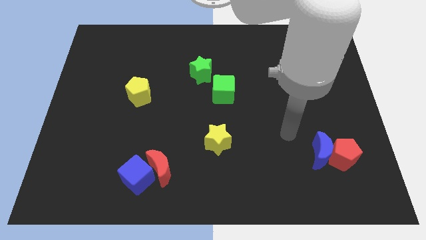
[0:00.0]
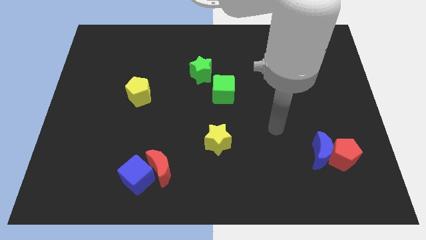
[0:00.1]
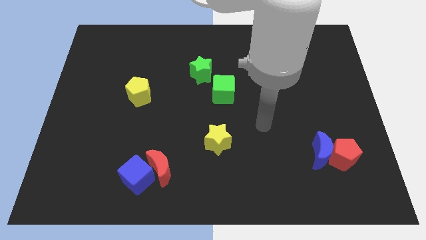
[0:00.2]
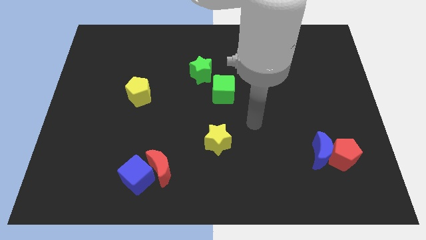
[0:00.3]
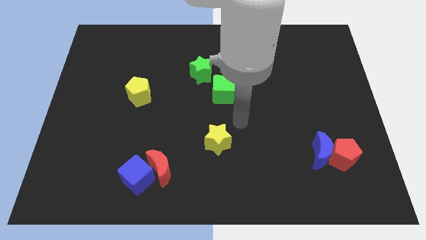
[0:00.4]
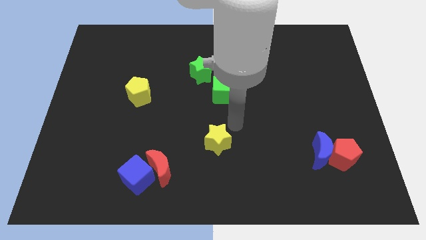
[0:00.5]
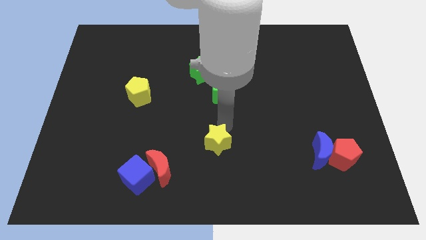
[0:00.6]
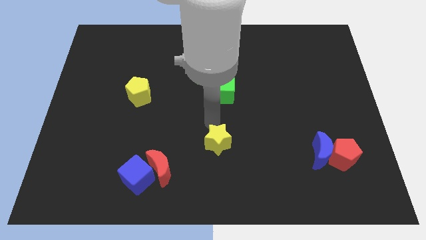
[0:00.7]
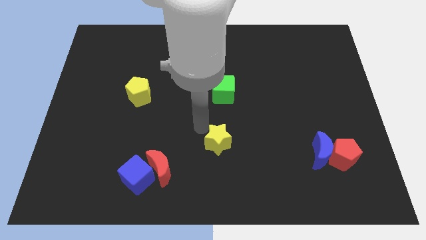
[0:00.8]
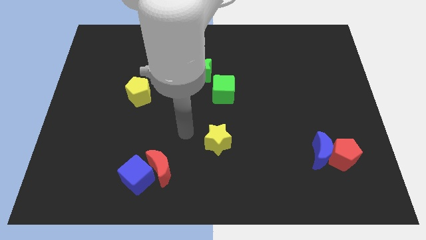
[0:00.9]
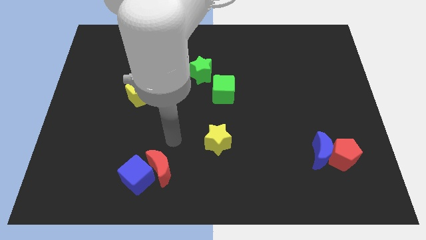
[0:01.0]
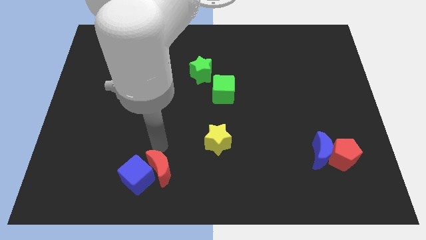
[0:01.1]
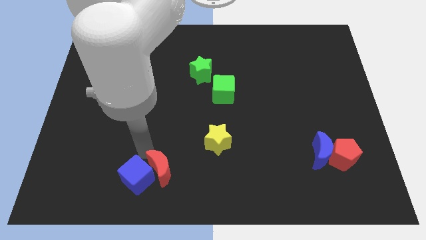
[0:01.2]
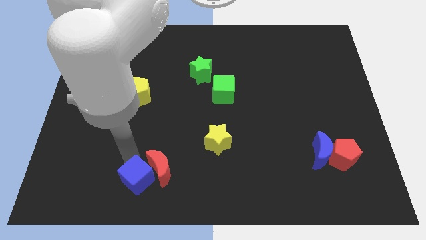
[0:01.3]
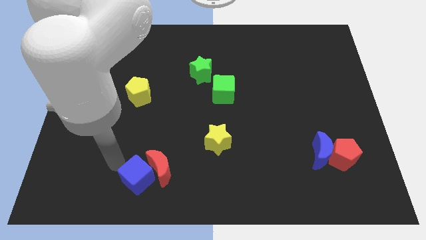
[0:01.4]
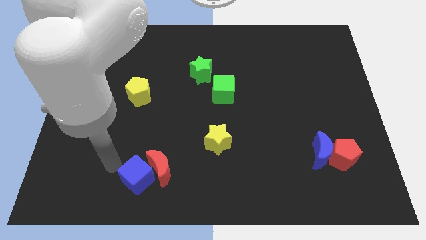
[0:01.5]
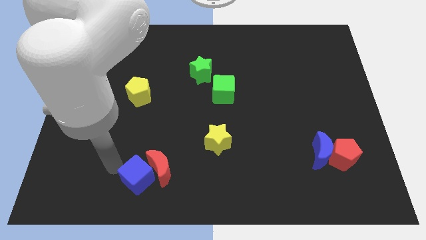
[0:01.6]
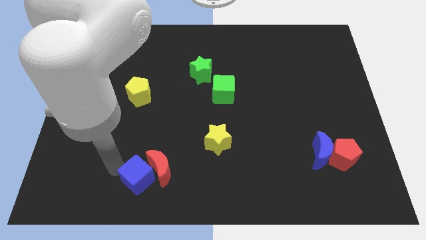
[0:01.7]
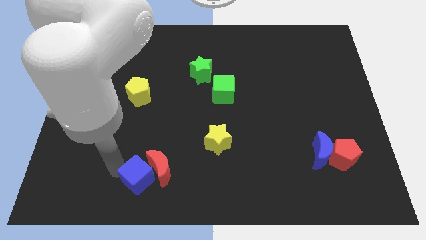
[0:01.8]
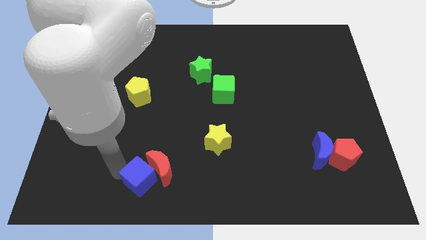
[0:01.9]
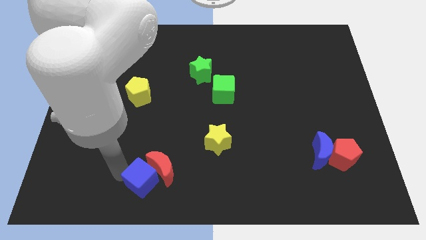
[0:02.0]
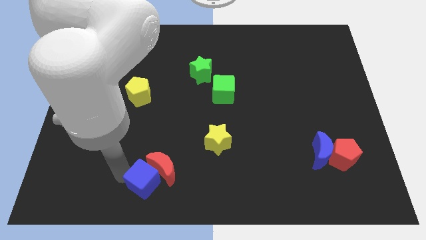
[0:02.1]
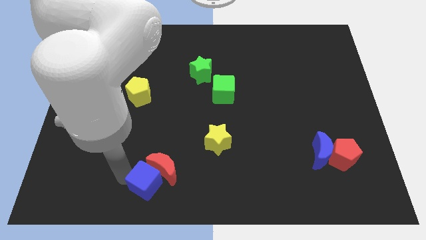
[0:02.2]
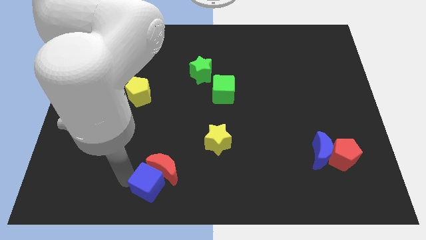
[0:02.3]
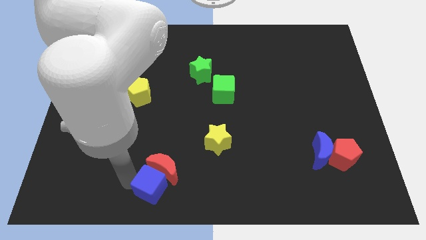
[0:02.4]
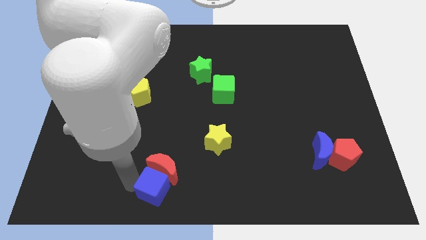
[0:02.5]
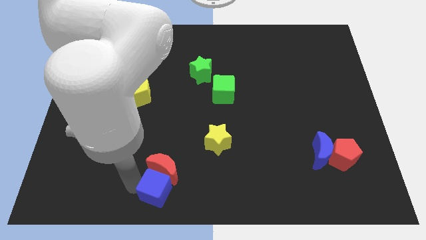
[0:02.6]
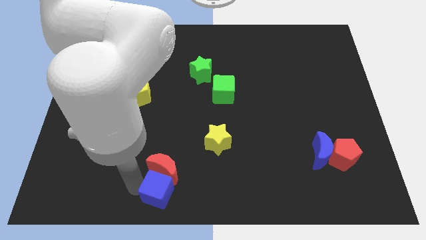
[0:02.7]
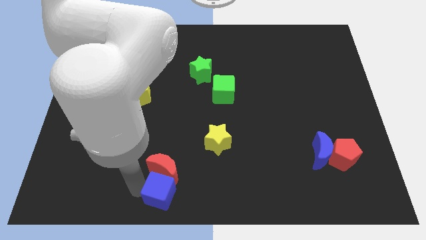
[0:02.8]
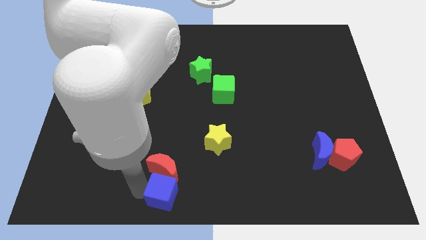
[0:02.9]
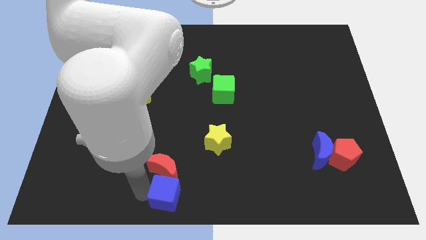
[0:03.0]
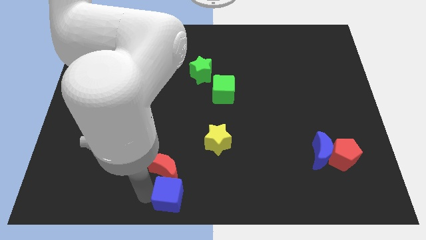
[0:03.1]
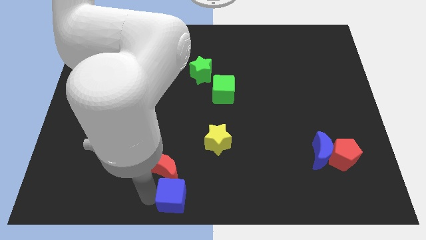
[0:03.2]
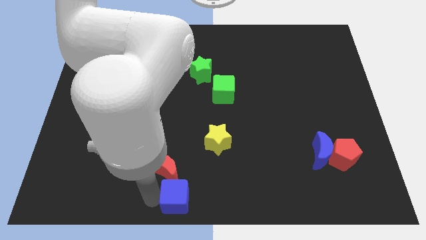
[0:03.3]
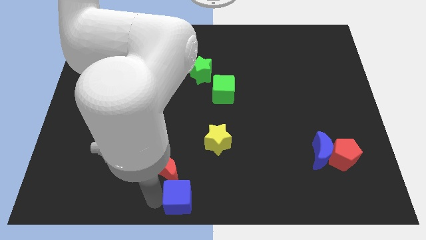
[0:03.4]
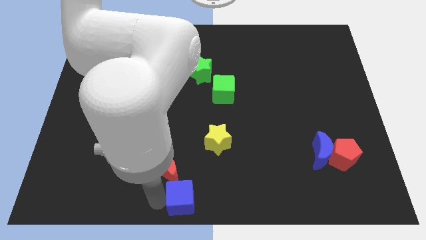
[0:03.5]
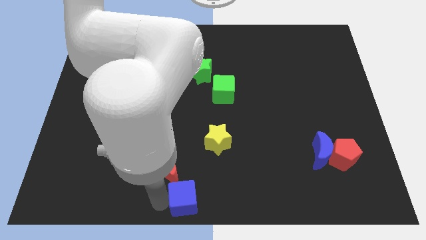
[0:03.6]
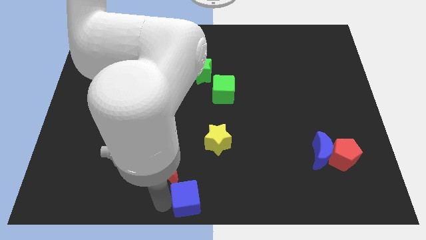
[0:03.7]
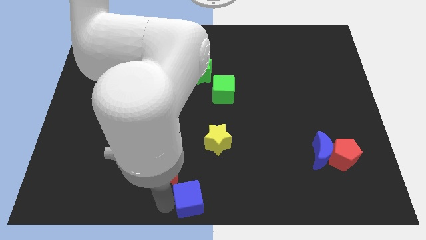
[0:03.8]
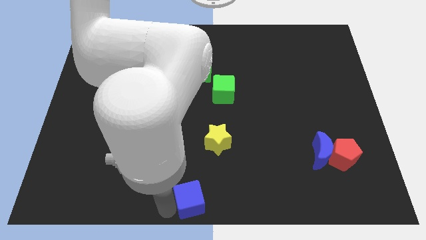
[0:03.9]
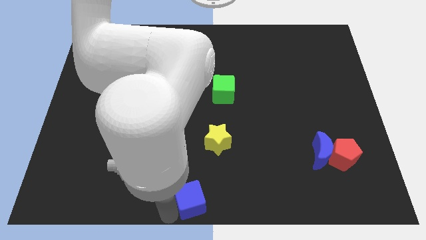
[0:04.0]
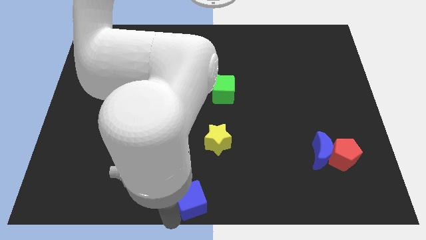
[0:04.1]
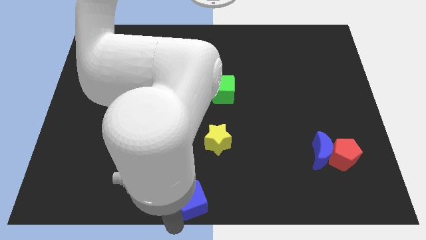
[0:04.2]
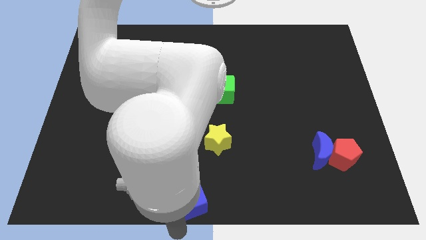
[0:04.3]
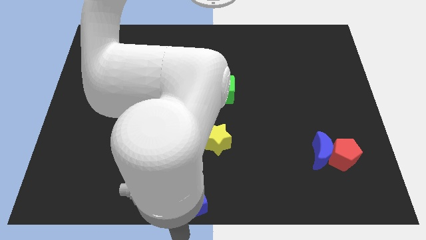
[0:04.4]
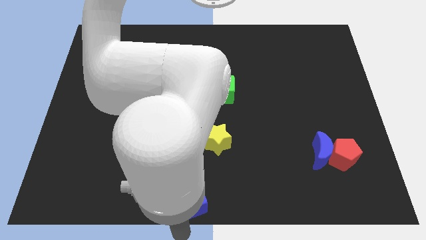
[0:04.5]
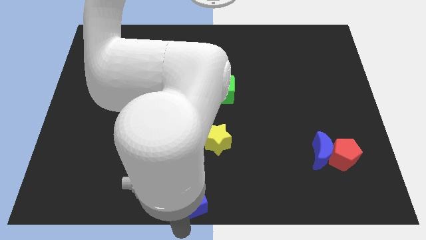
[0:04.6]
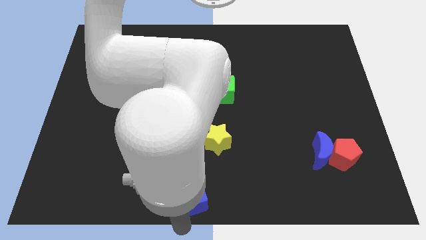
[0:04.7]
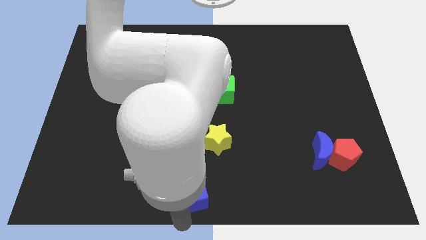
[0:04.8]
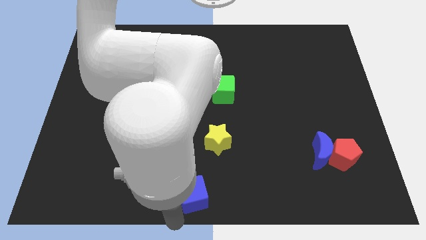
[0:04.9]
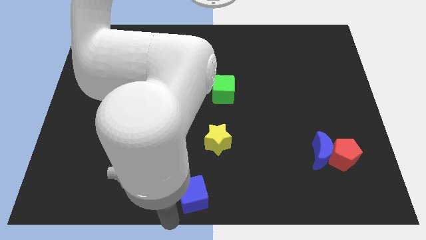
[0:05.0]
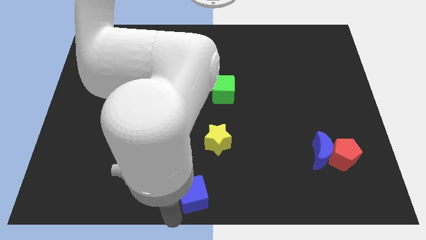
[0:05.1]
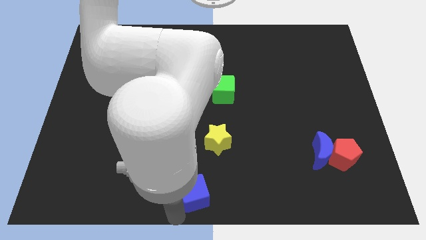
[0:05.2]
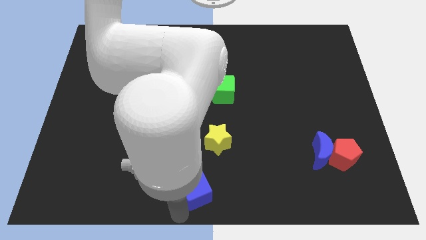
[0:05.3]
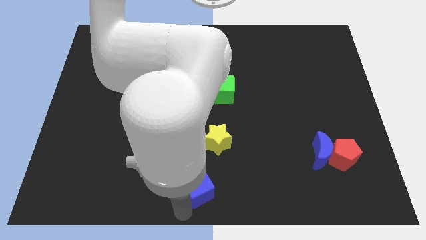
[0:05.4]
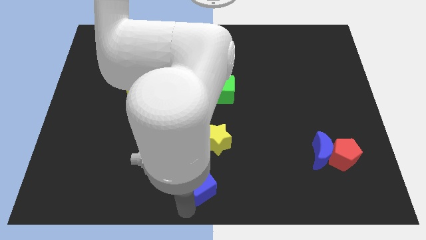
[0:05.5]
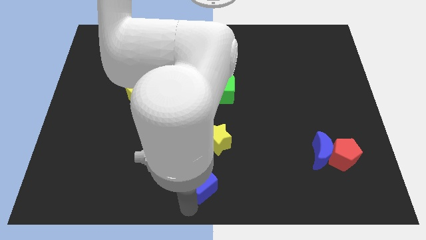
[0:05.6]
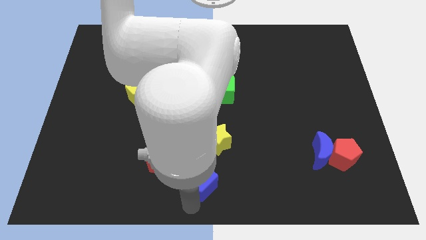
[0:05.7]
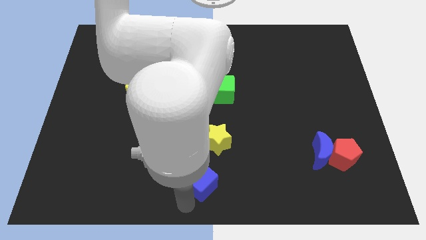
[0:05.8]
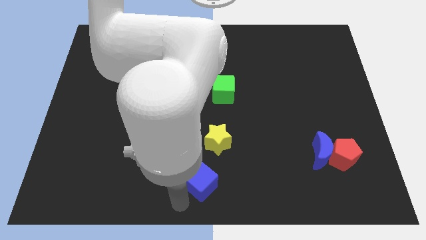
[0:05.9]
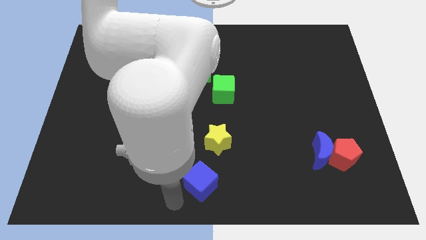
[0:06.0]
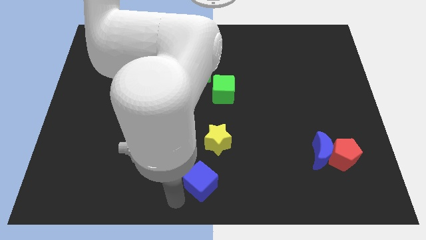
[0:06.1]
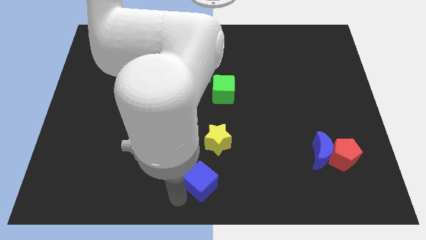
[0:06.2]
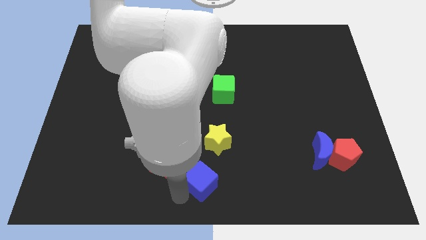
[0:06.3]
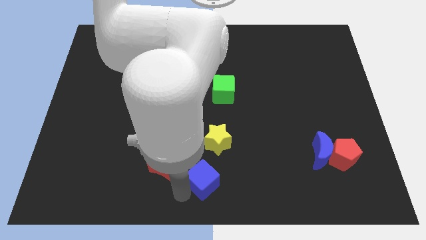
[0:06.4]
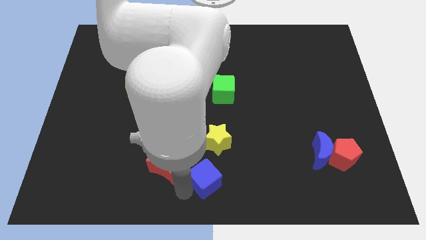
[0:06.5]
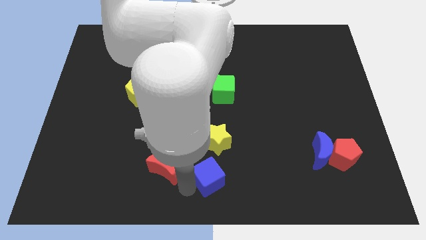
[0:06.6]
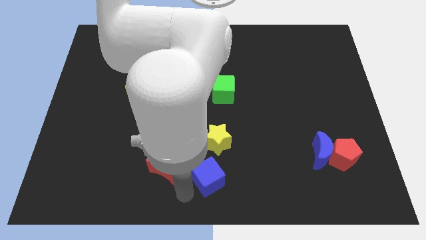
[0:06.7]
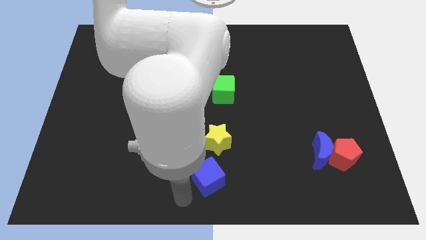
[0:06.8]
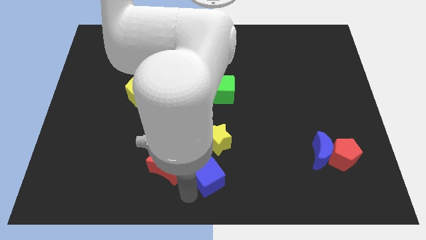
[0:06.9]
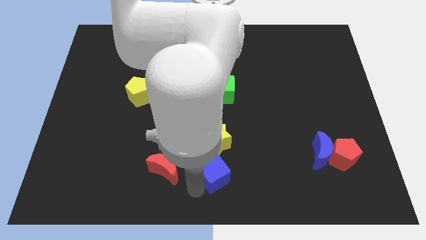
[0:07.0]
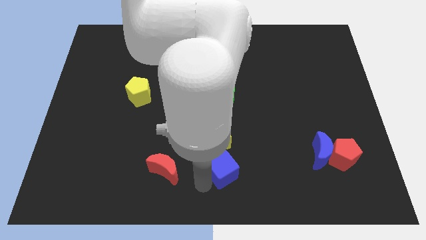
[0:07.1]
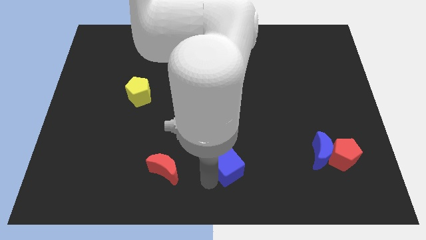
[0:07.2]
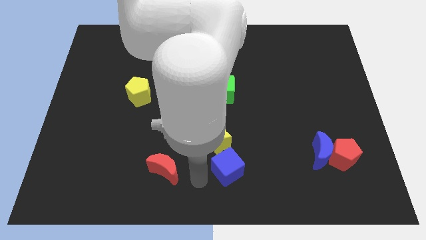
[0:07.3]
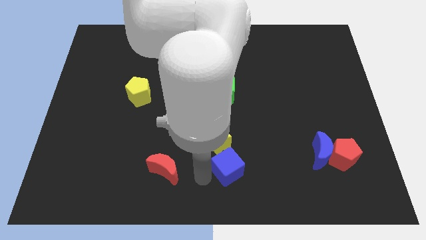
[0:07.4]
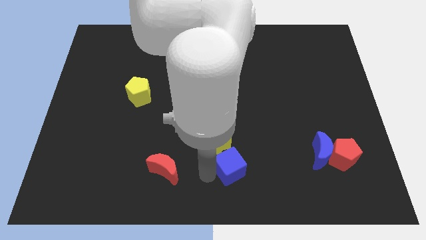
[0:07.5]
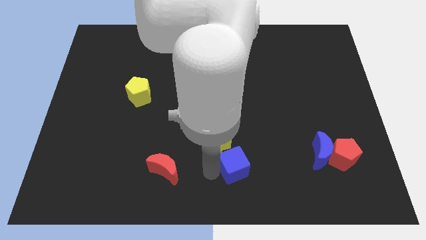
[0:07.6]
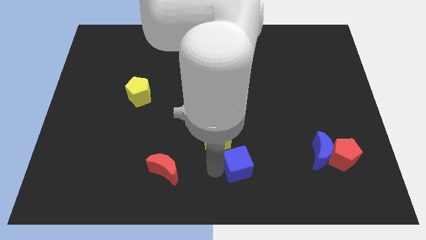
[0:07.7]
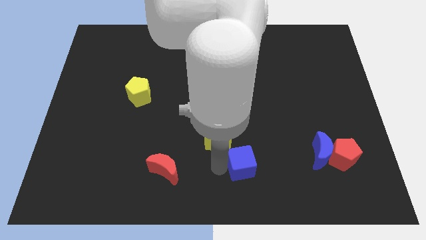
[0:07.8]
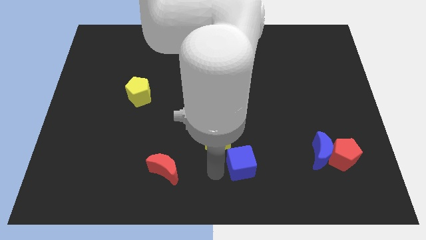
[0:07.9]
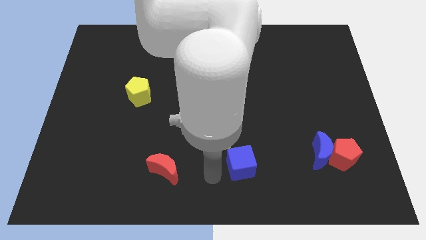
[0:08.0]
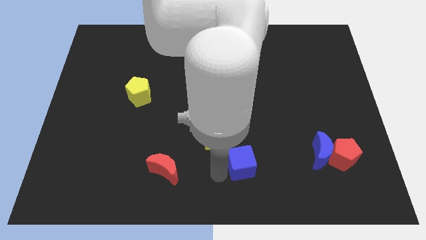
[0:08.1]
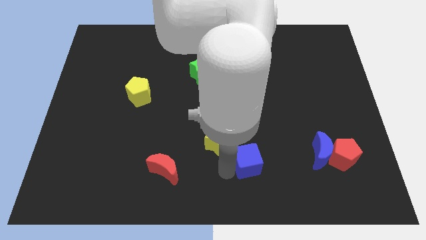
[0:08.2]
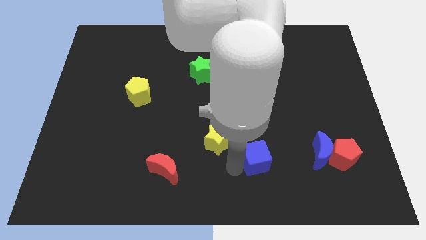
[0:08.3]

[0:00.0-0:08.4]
put the blue cube left of the blue moon
